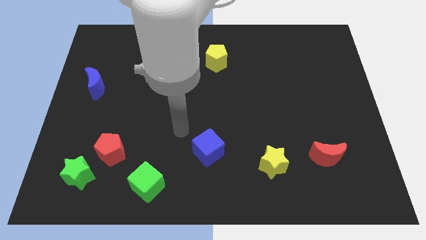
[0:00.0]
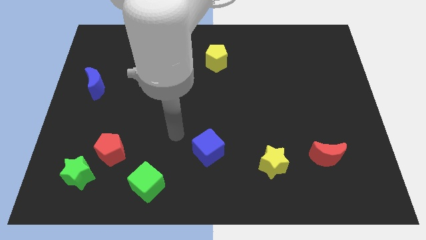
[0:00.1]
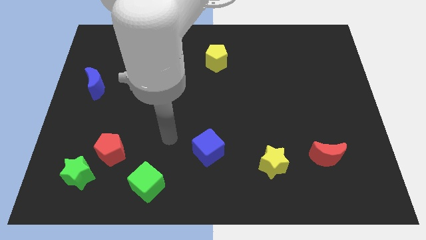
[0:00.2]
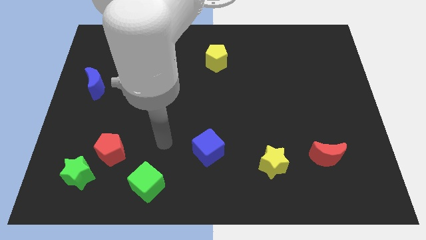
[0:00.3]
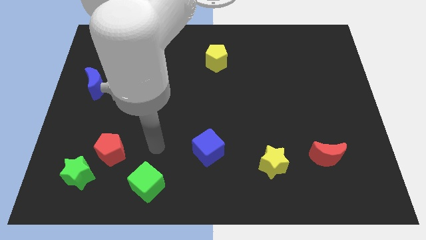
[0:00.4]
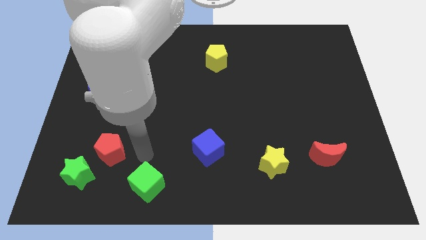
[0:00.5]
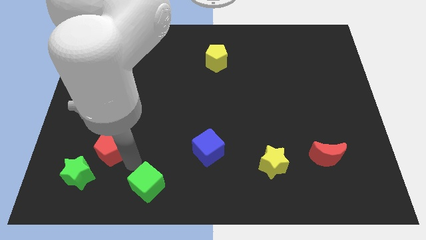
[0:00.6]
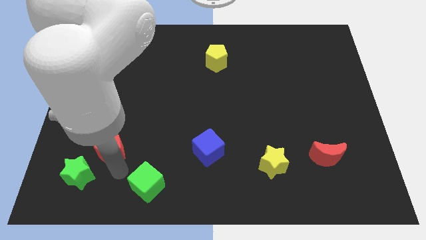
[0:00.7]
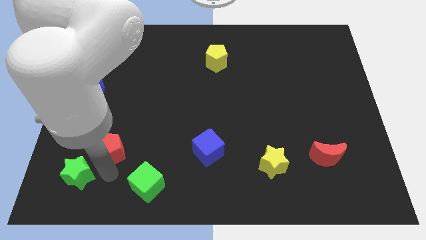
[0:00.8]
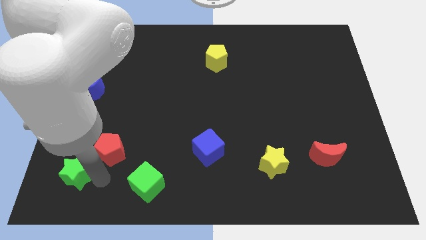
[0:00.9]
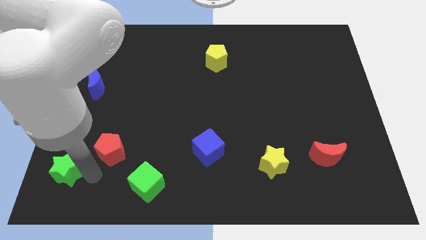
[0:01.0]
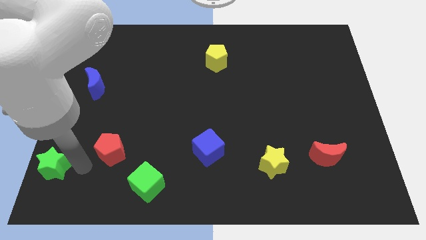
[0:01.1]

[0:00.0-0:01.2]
separate the red pentagon from the green star

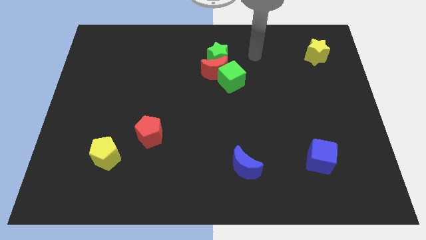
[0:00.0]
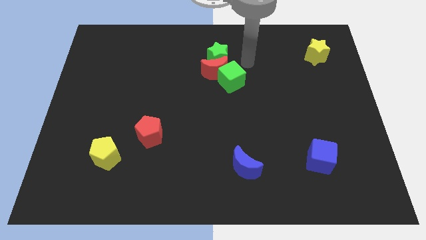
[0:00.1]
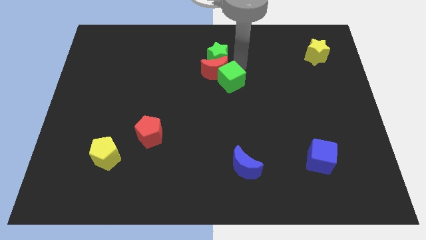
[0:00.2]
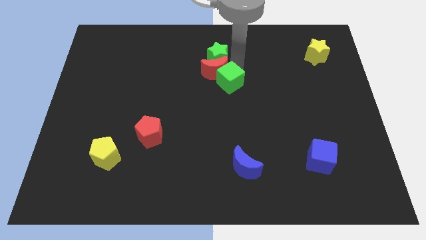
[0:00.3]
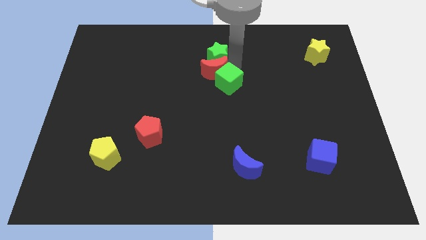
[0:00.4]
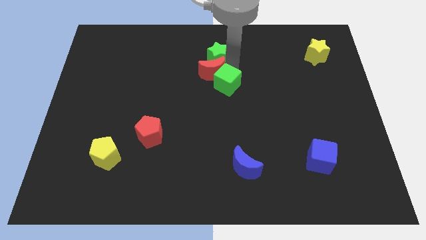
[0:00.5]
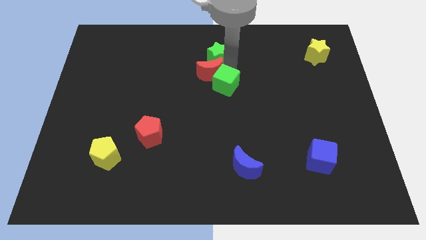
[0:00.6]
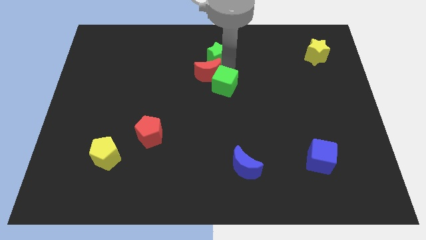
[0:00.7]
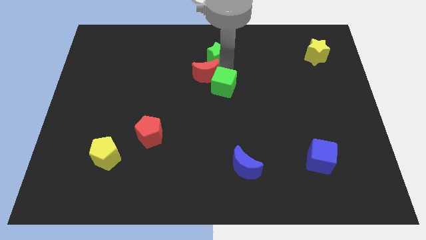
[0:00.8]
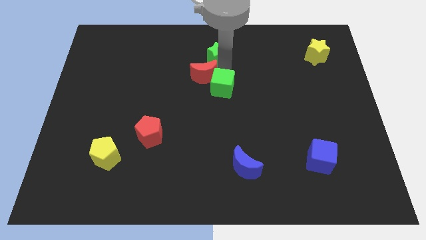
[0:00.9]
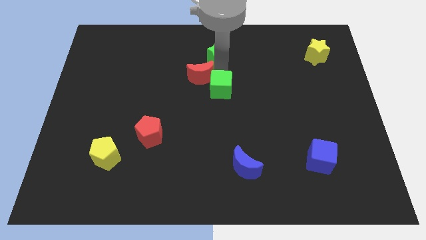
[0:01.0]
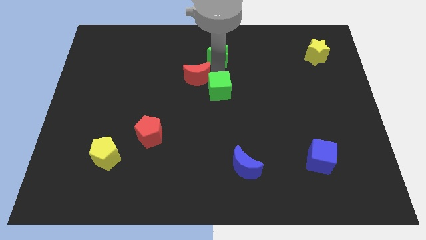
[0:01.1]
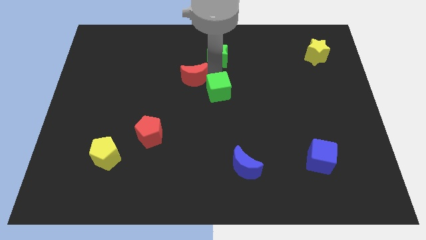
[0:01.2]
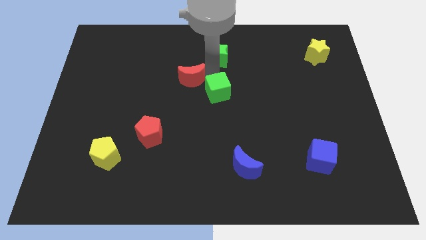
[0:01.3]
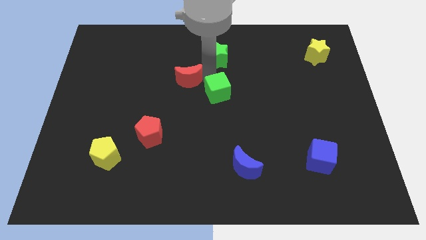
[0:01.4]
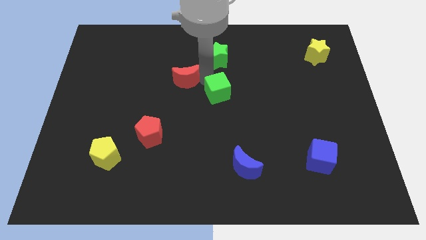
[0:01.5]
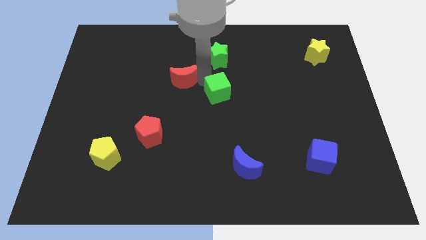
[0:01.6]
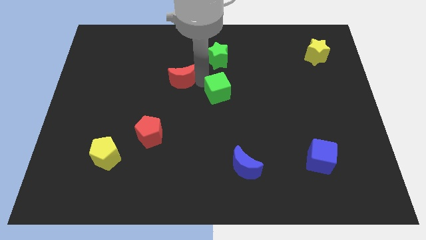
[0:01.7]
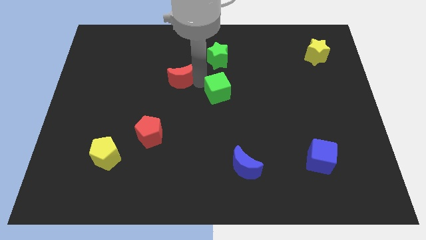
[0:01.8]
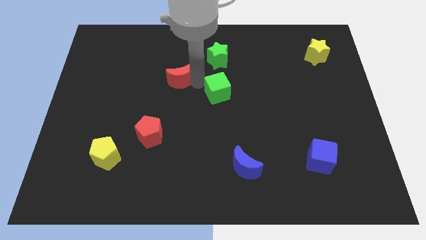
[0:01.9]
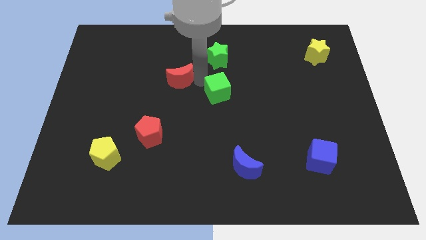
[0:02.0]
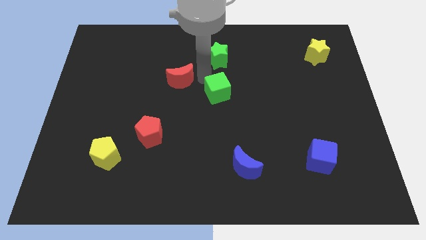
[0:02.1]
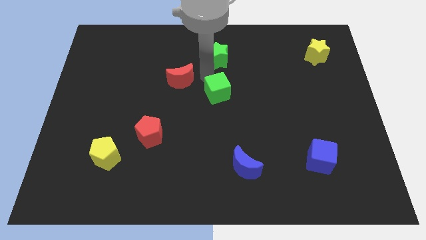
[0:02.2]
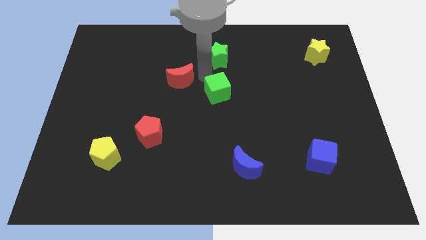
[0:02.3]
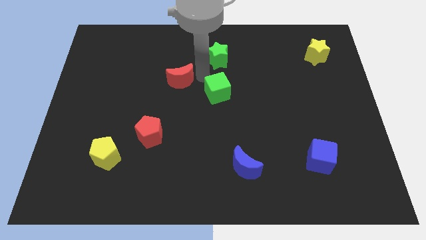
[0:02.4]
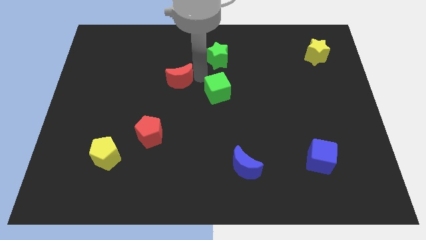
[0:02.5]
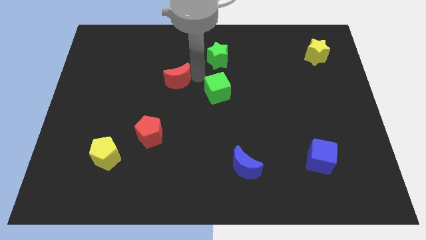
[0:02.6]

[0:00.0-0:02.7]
pull the red moon apart from the green star and green cube

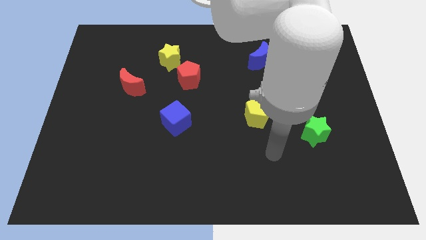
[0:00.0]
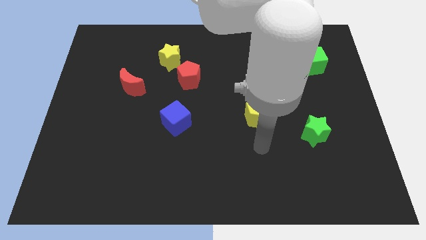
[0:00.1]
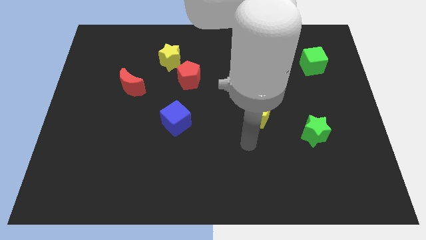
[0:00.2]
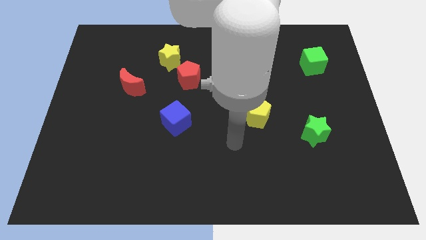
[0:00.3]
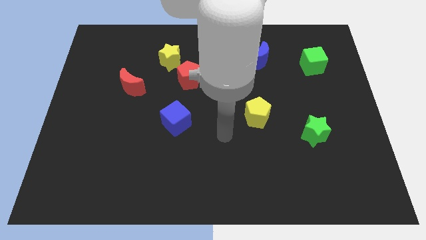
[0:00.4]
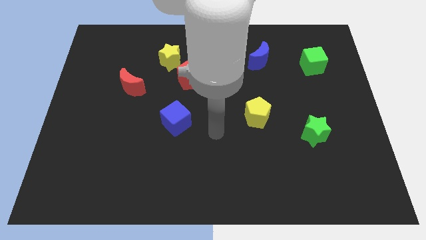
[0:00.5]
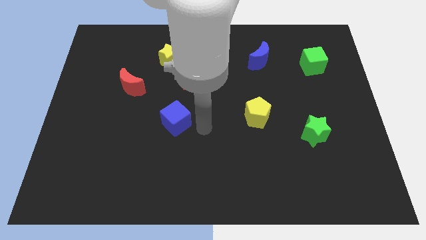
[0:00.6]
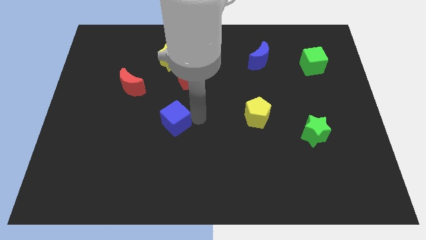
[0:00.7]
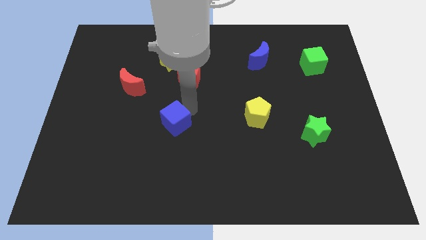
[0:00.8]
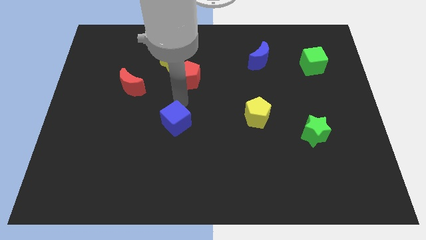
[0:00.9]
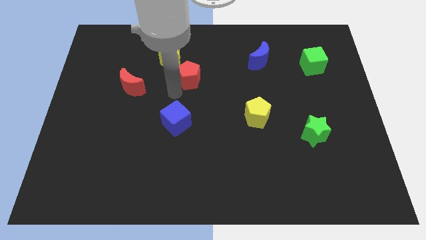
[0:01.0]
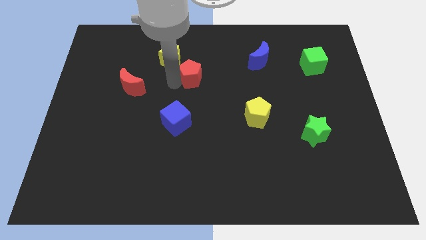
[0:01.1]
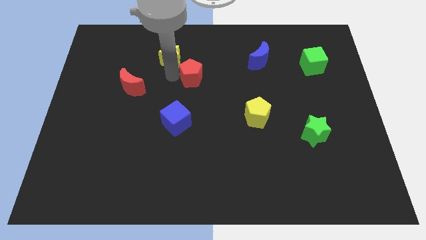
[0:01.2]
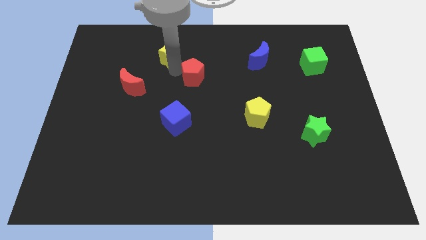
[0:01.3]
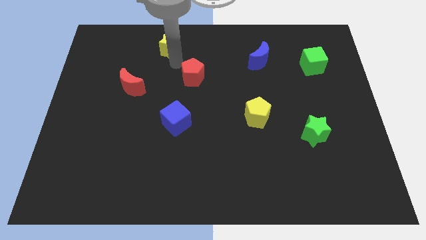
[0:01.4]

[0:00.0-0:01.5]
separate the red pentagon from the yellow star

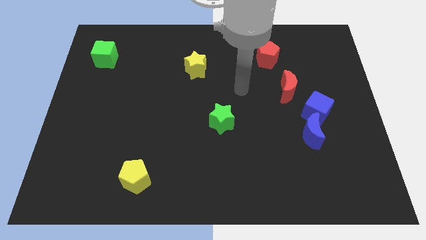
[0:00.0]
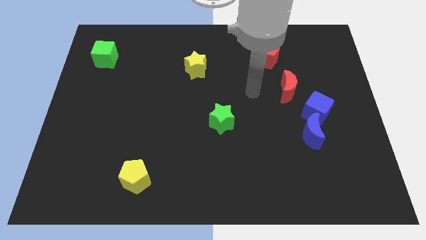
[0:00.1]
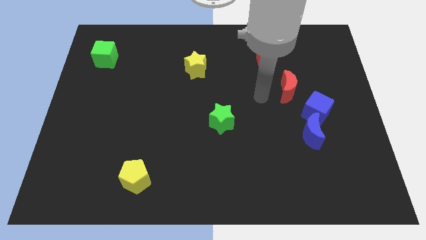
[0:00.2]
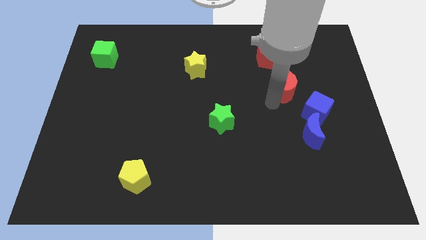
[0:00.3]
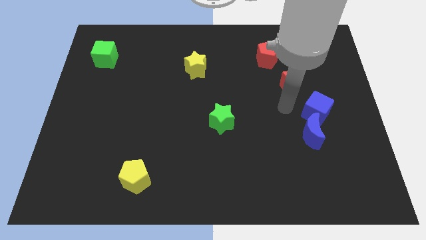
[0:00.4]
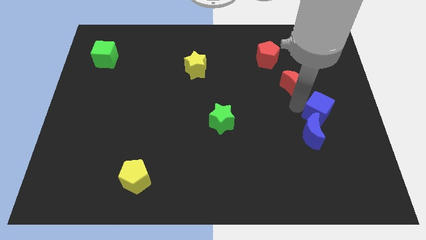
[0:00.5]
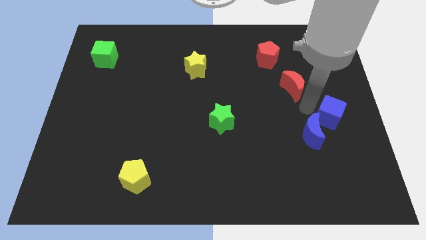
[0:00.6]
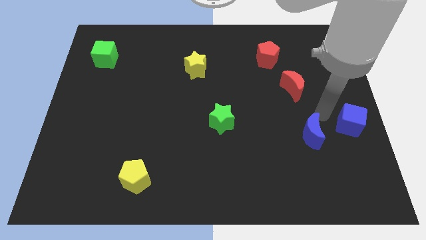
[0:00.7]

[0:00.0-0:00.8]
move the blue moon away from the blue cube

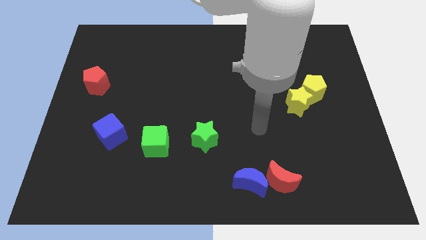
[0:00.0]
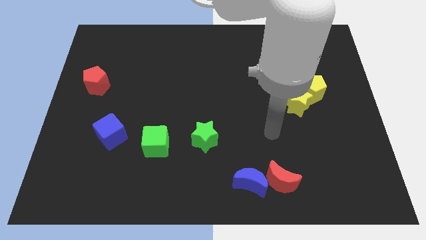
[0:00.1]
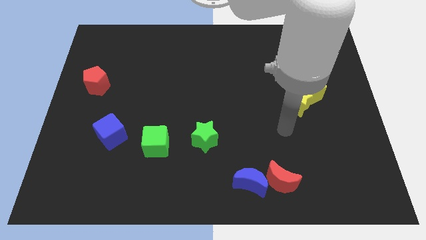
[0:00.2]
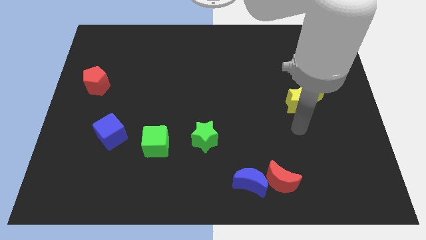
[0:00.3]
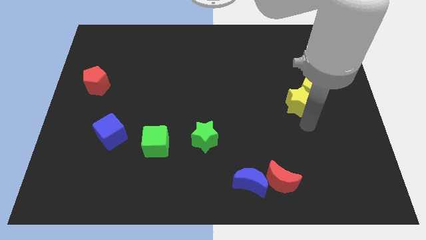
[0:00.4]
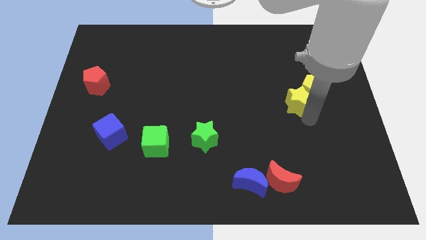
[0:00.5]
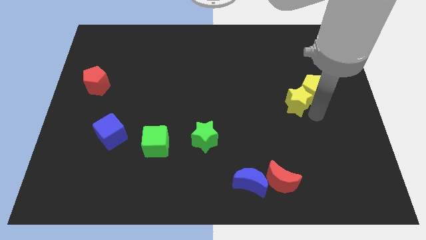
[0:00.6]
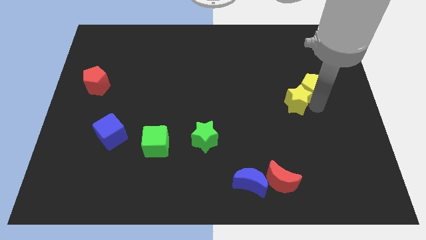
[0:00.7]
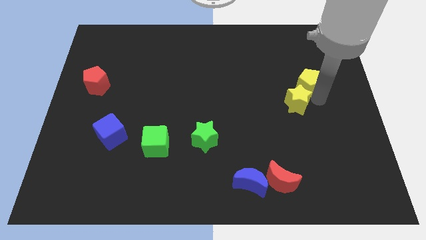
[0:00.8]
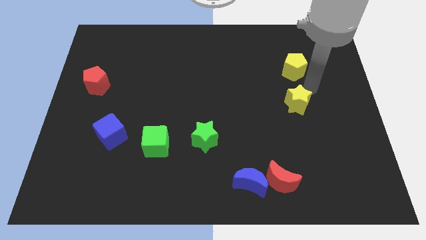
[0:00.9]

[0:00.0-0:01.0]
move the yellow star away from the yellow pentagon

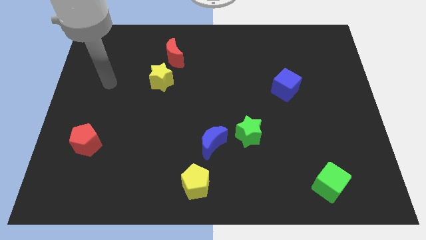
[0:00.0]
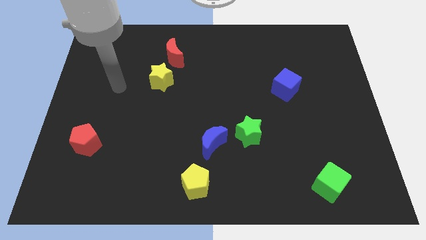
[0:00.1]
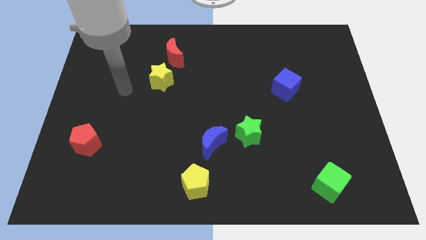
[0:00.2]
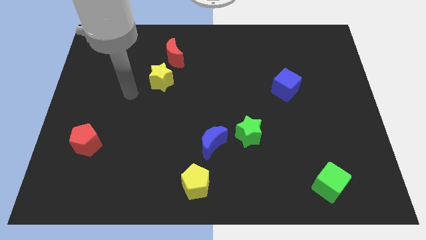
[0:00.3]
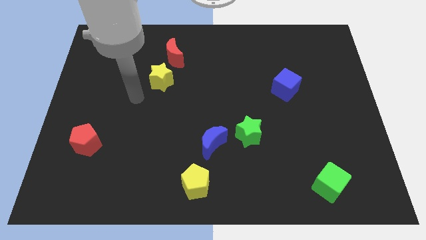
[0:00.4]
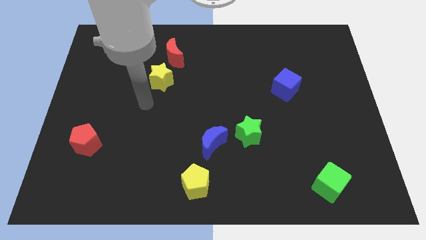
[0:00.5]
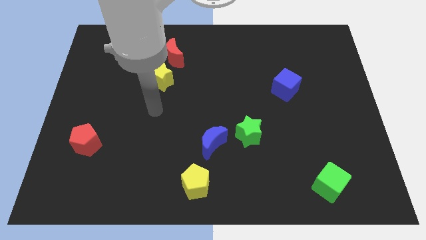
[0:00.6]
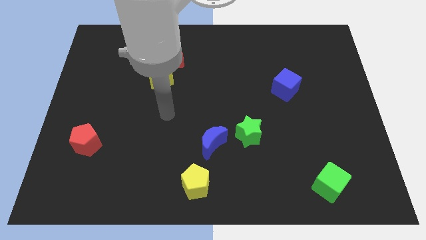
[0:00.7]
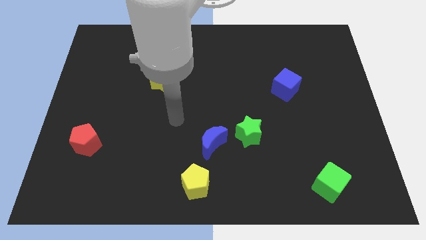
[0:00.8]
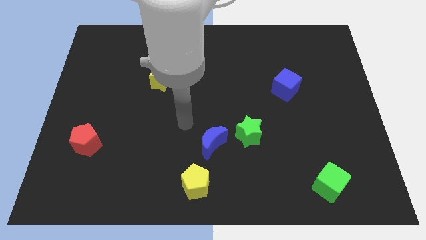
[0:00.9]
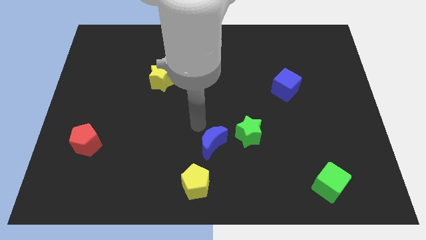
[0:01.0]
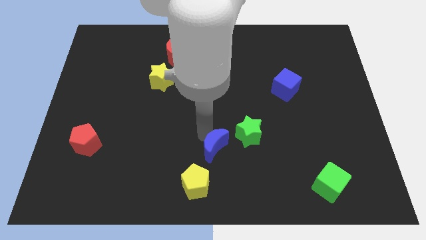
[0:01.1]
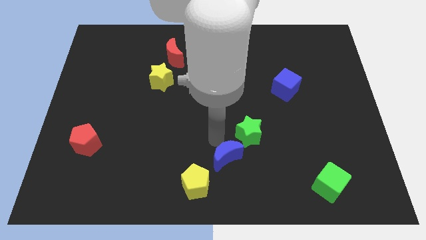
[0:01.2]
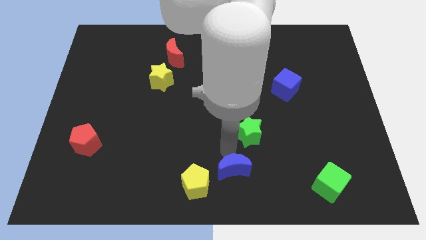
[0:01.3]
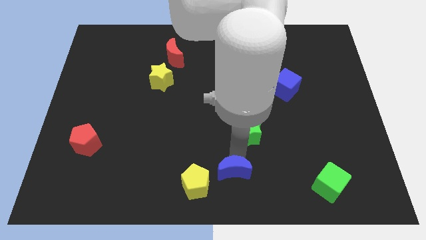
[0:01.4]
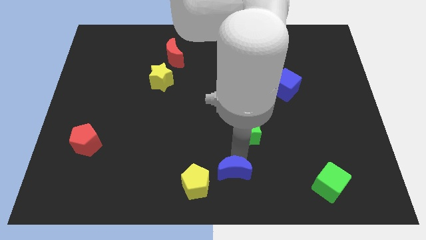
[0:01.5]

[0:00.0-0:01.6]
pull the green star apart from the blue moon

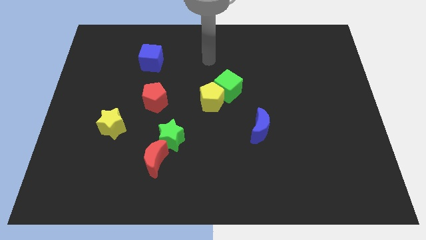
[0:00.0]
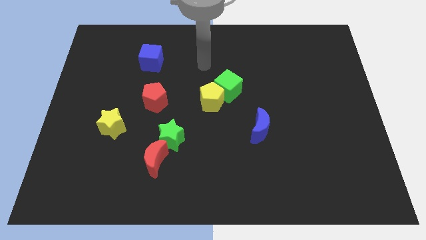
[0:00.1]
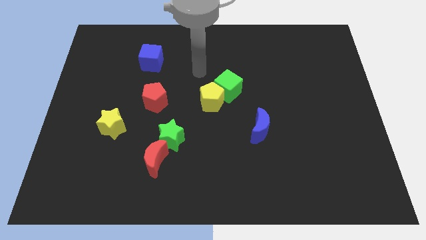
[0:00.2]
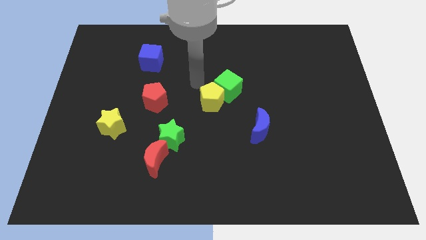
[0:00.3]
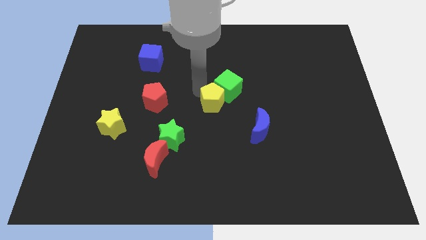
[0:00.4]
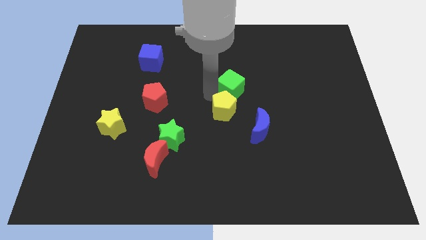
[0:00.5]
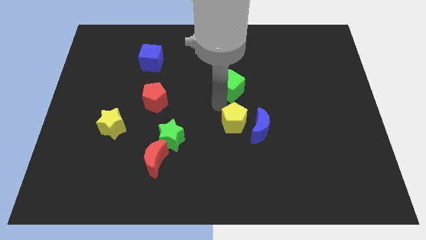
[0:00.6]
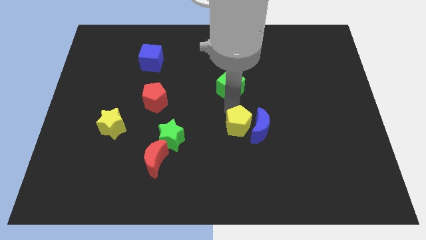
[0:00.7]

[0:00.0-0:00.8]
separate the green cube from the yellow pentagon
